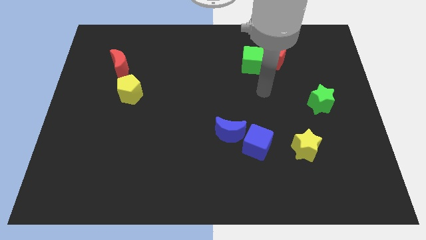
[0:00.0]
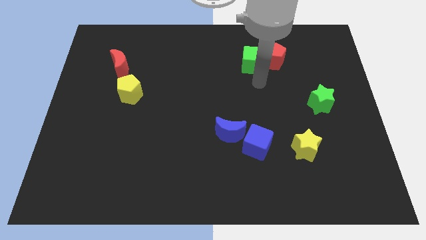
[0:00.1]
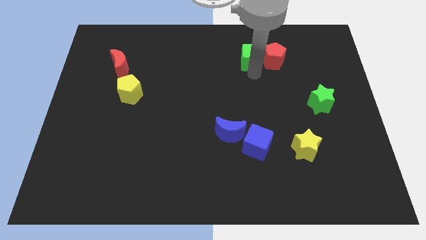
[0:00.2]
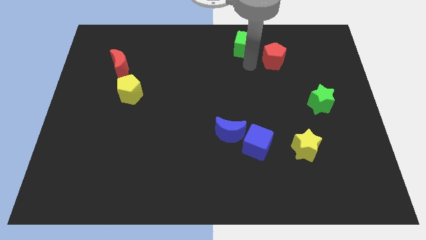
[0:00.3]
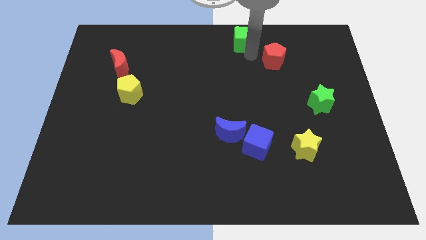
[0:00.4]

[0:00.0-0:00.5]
move the red pentagon away from the green cube

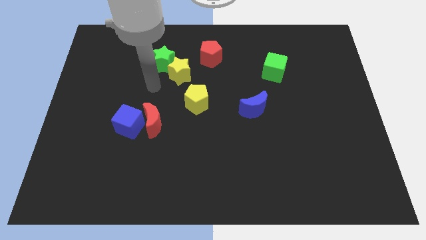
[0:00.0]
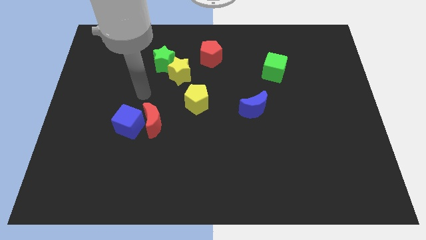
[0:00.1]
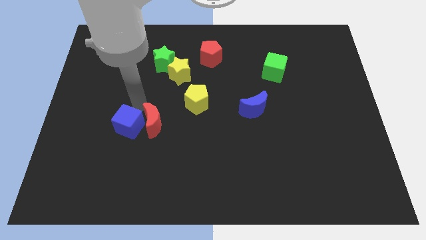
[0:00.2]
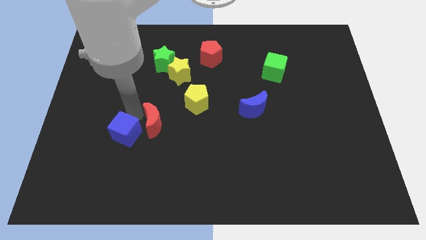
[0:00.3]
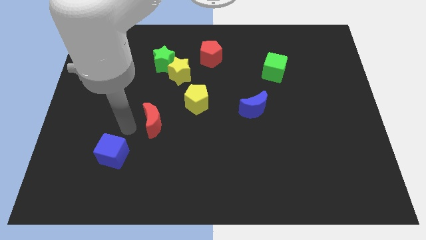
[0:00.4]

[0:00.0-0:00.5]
separate the red moon from the blue cube

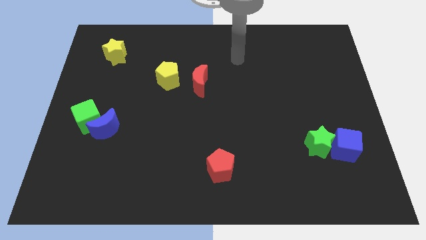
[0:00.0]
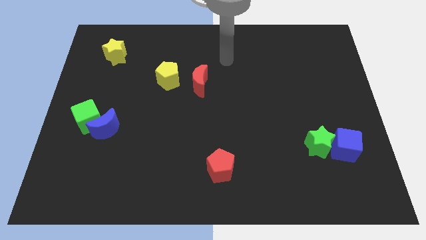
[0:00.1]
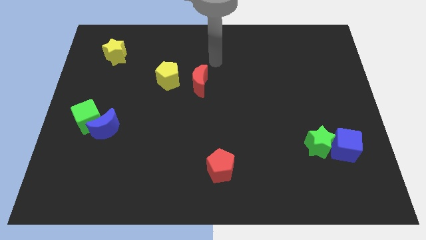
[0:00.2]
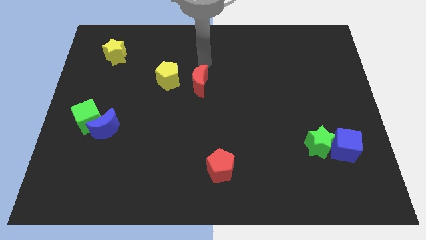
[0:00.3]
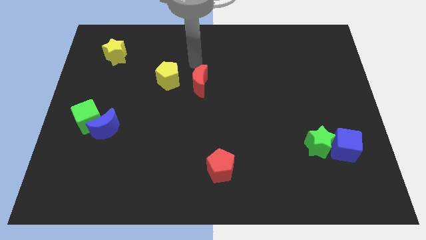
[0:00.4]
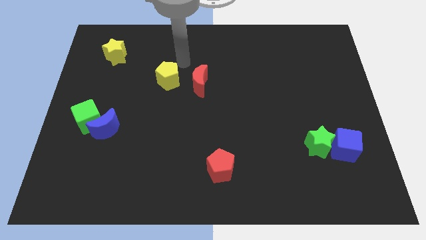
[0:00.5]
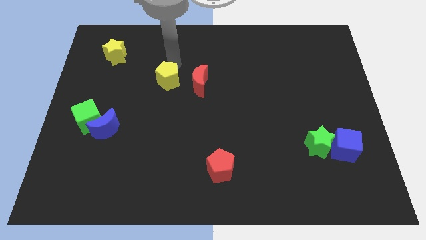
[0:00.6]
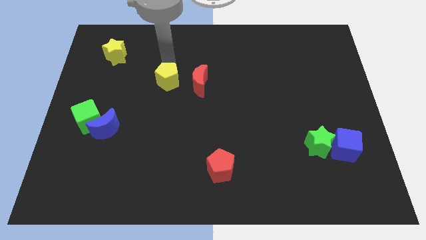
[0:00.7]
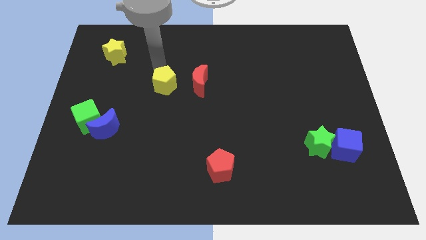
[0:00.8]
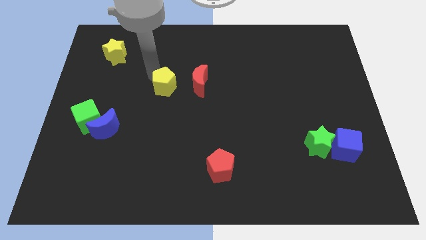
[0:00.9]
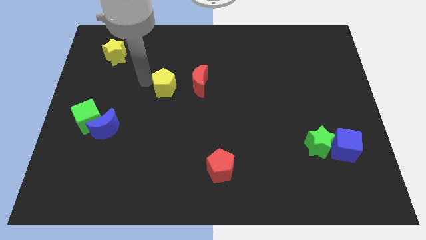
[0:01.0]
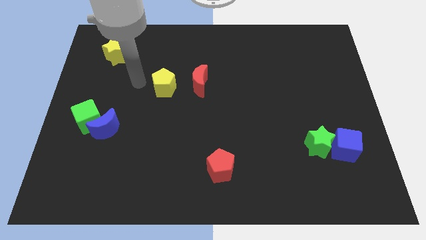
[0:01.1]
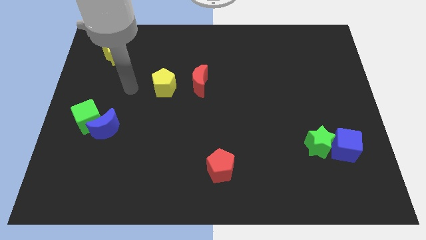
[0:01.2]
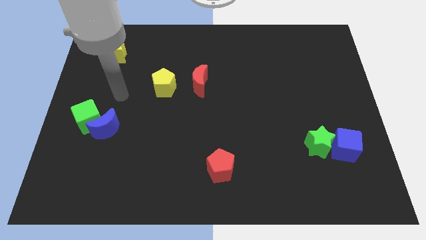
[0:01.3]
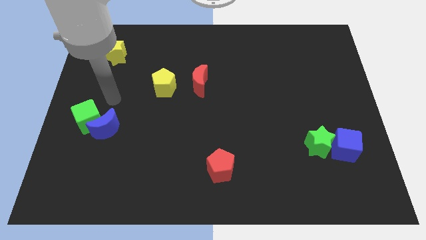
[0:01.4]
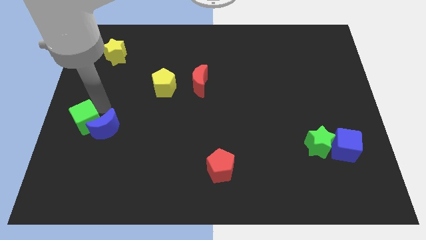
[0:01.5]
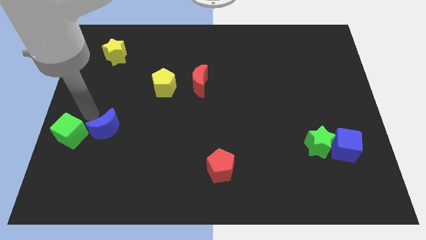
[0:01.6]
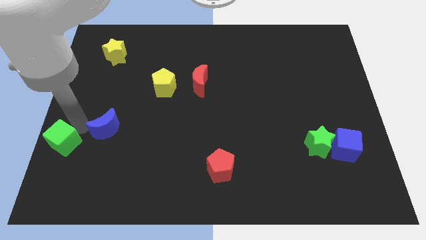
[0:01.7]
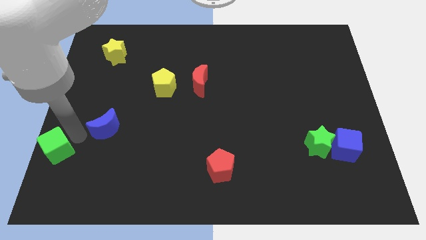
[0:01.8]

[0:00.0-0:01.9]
move the blue moon away from the green cube

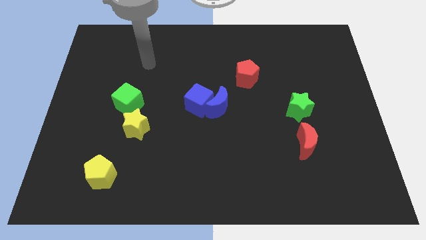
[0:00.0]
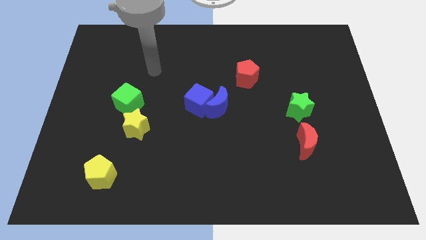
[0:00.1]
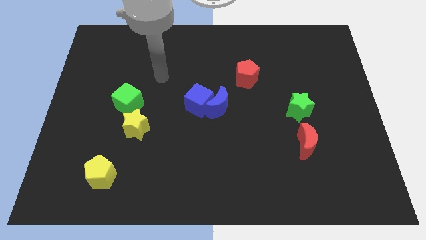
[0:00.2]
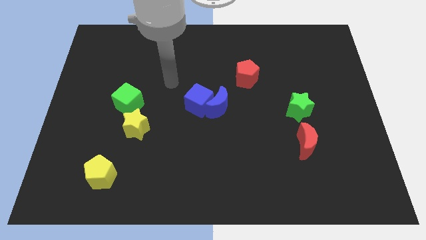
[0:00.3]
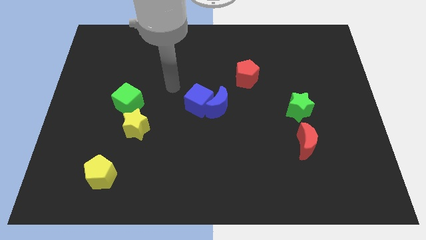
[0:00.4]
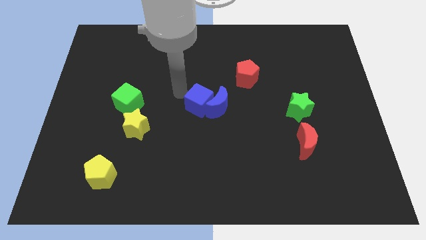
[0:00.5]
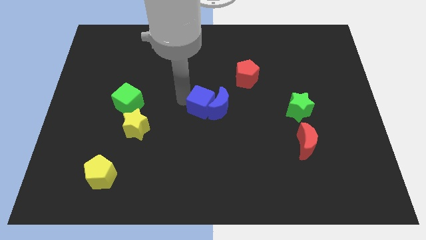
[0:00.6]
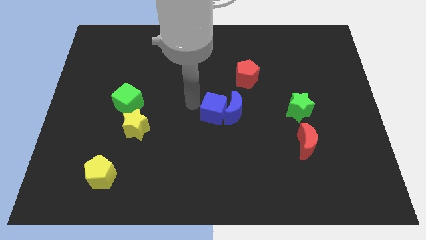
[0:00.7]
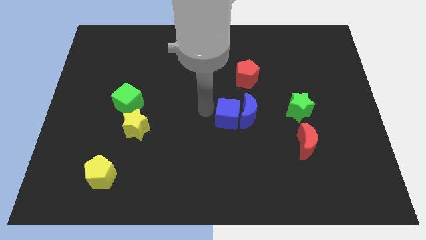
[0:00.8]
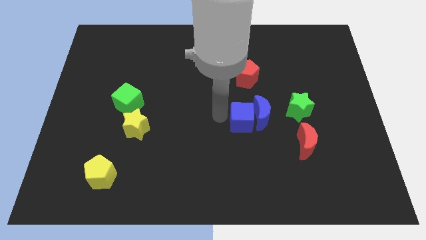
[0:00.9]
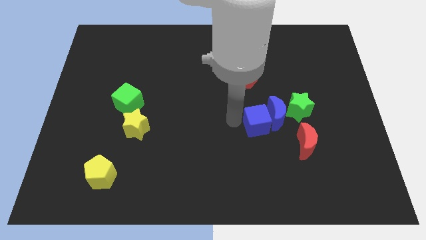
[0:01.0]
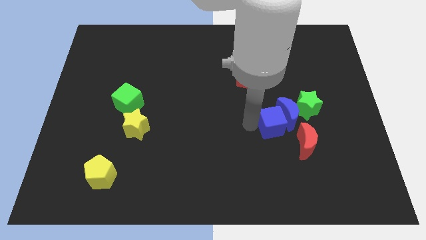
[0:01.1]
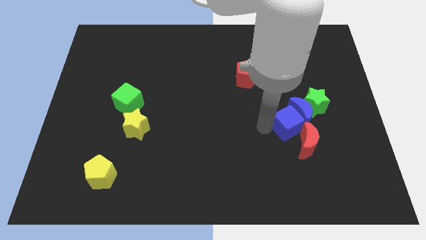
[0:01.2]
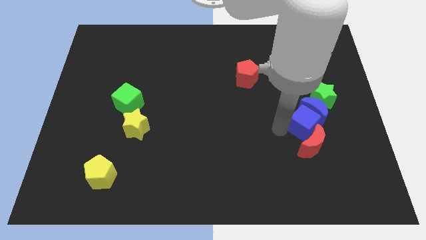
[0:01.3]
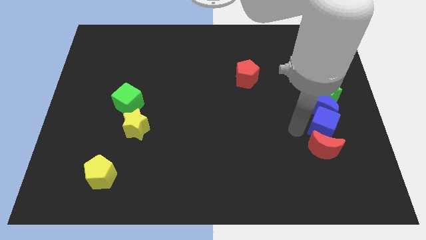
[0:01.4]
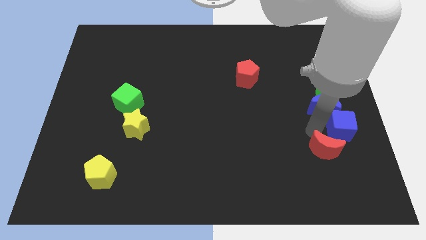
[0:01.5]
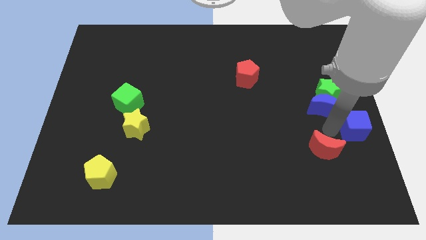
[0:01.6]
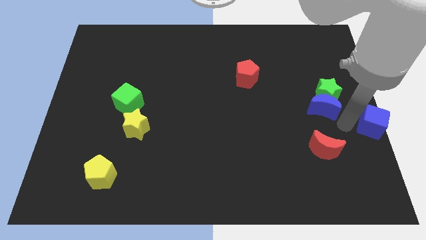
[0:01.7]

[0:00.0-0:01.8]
separate the blue moon from the blue cube

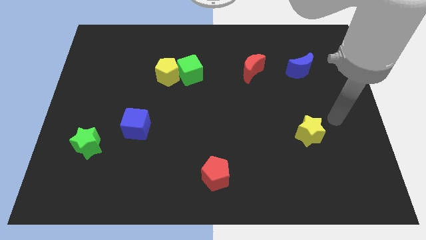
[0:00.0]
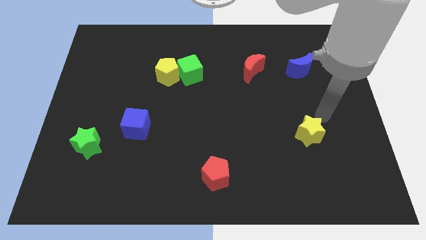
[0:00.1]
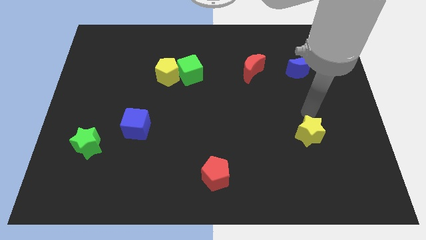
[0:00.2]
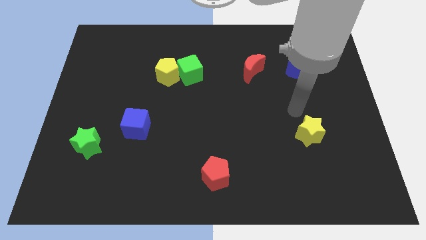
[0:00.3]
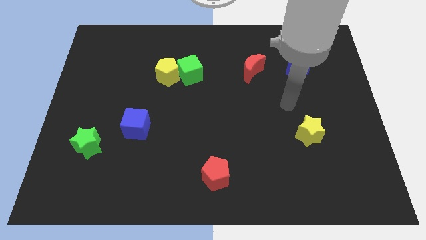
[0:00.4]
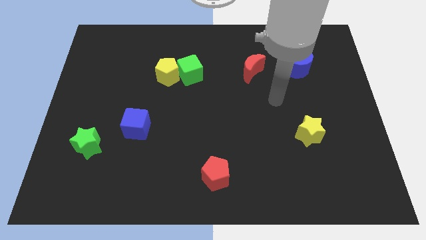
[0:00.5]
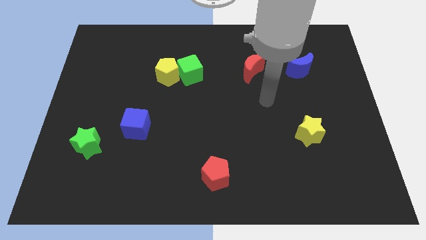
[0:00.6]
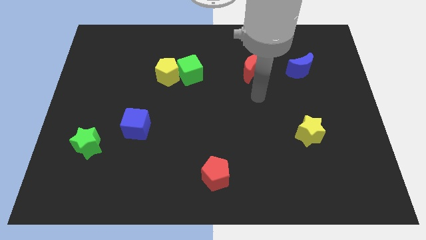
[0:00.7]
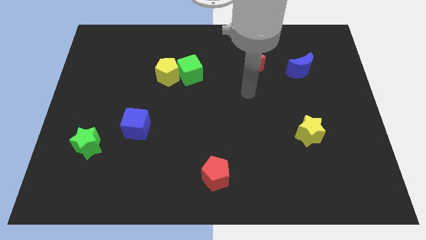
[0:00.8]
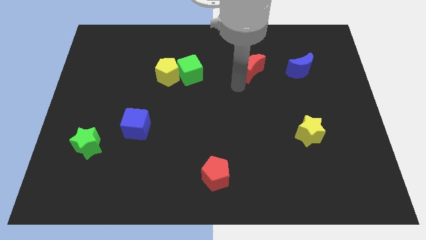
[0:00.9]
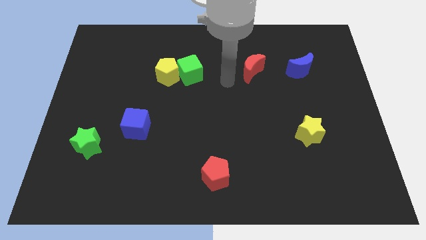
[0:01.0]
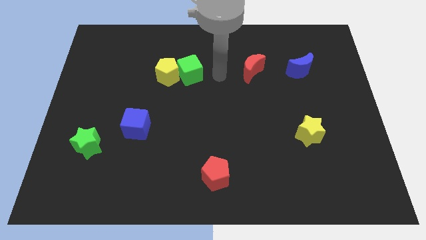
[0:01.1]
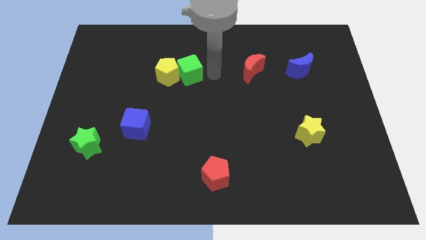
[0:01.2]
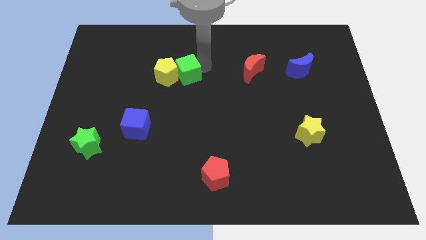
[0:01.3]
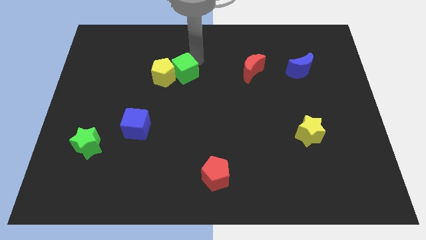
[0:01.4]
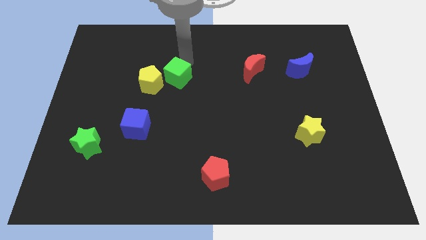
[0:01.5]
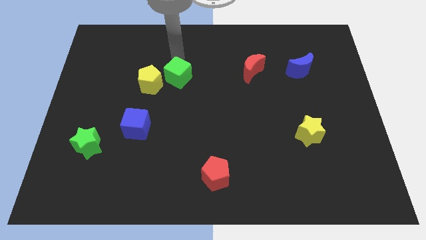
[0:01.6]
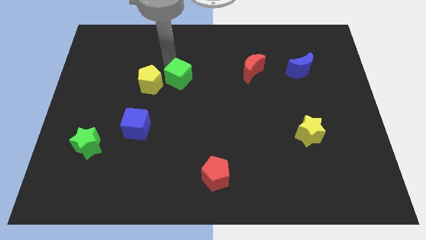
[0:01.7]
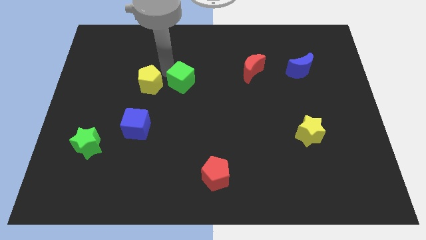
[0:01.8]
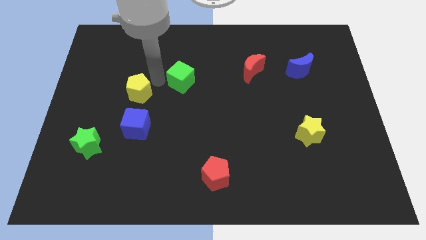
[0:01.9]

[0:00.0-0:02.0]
move the green cube away from the yellow pentagon

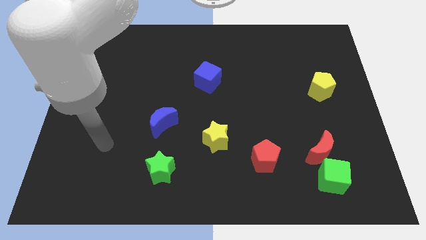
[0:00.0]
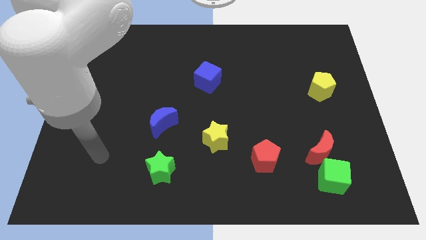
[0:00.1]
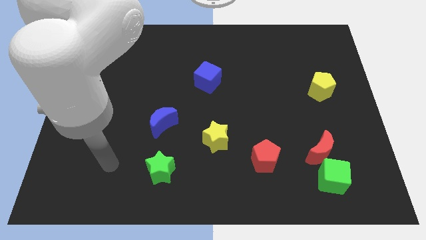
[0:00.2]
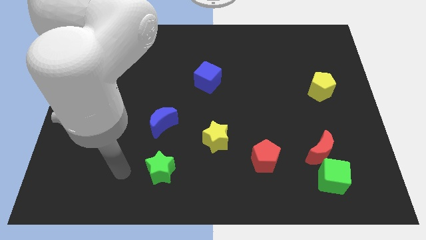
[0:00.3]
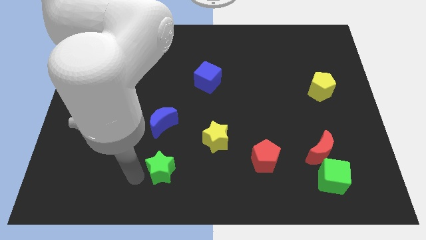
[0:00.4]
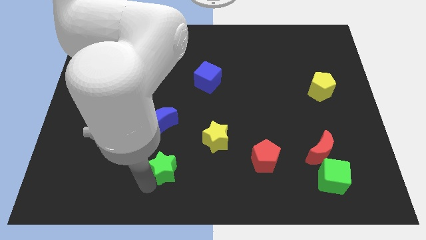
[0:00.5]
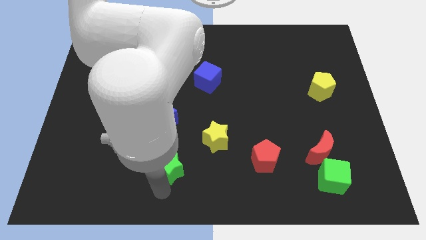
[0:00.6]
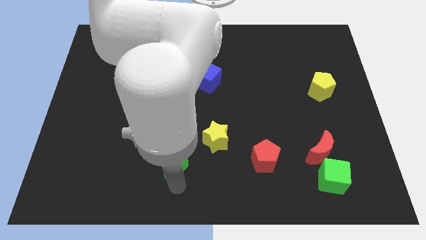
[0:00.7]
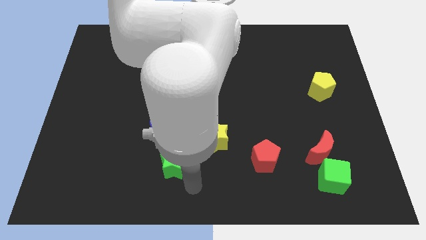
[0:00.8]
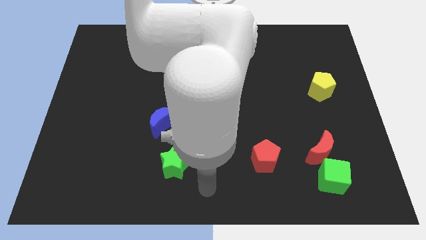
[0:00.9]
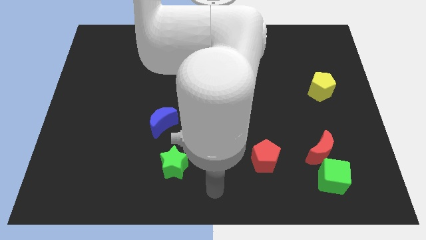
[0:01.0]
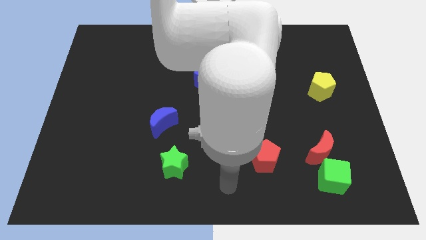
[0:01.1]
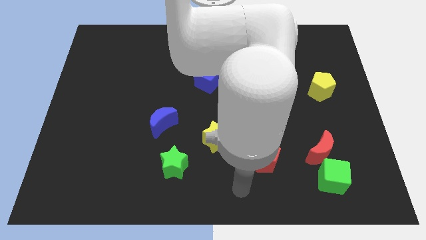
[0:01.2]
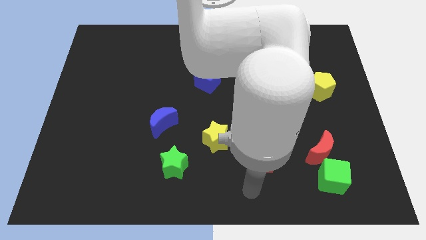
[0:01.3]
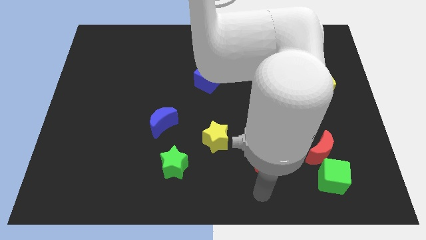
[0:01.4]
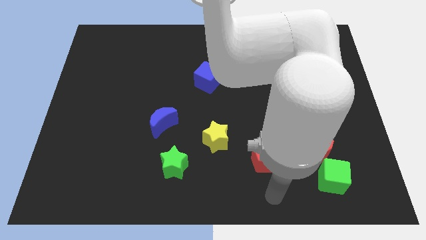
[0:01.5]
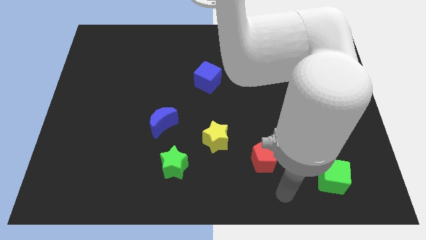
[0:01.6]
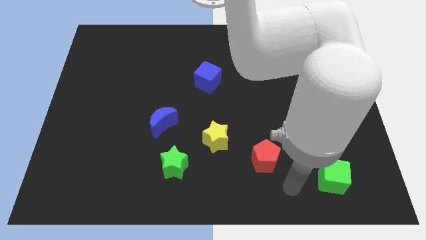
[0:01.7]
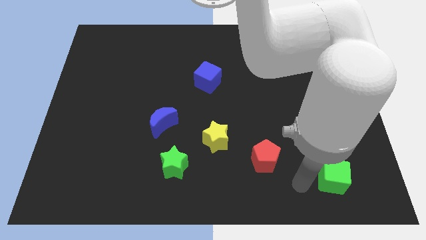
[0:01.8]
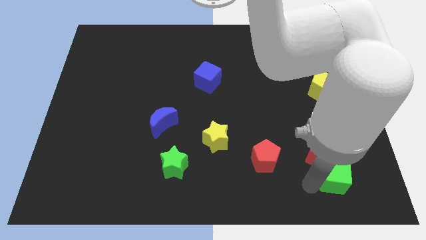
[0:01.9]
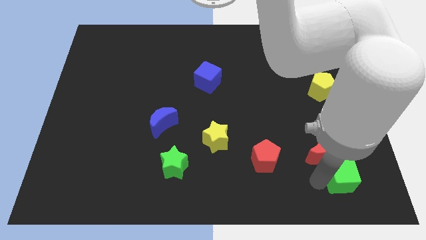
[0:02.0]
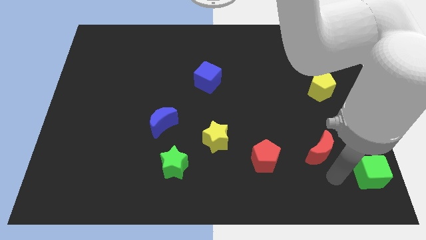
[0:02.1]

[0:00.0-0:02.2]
pull the red moon apart from the green cube

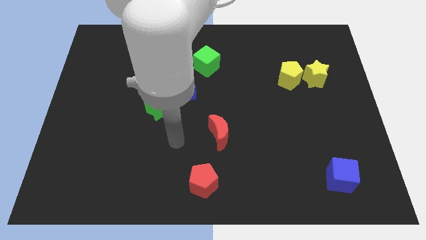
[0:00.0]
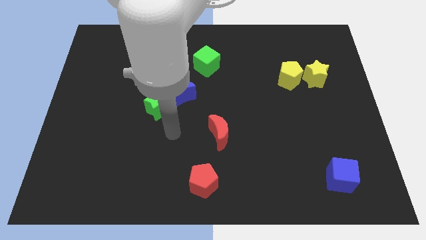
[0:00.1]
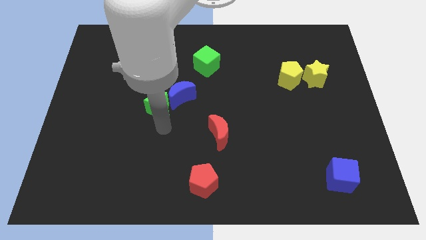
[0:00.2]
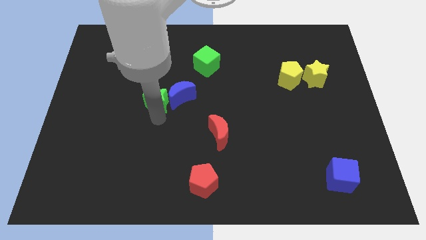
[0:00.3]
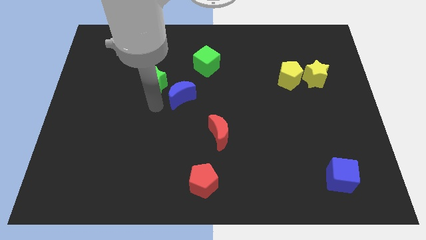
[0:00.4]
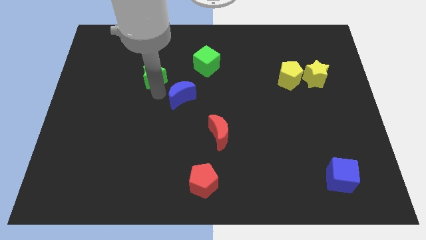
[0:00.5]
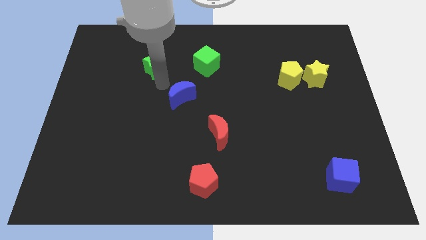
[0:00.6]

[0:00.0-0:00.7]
move the blue moon away from the green star
